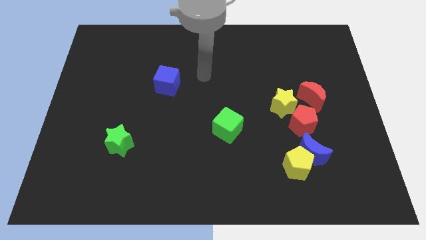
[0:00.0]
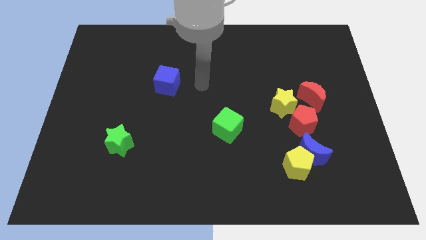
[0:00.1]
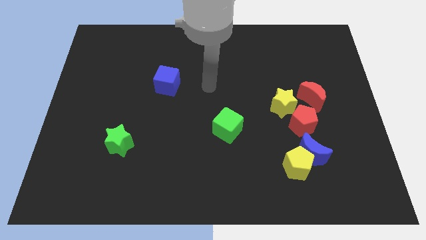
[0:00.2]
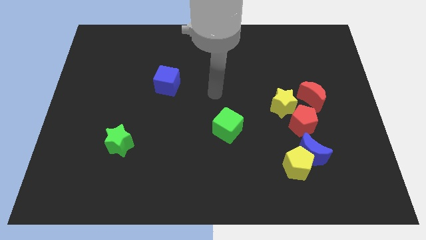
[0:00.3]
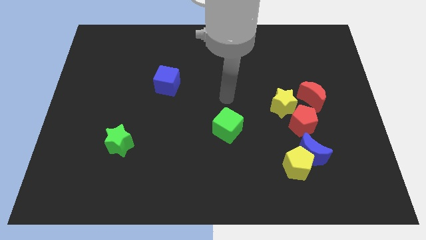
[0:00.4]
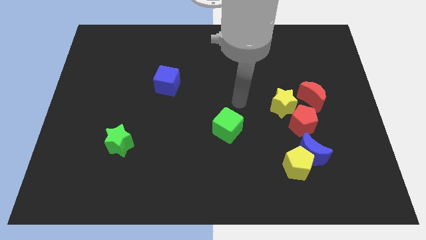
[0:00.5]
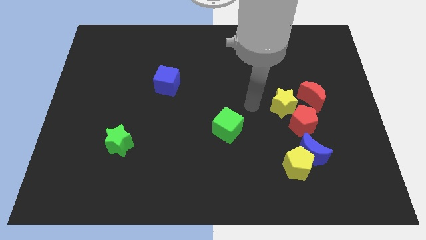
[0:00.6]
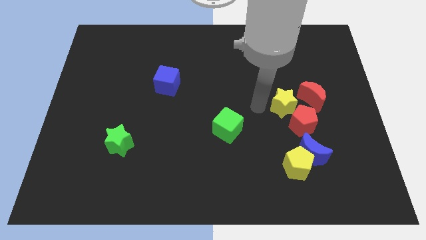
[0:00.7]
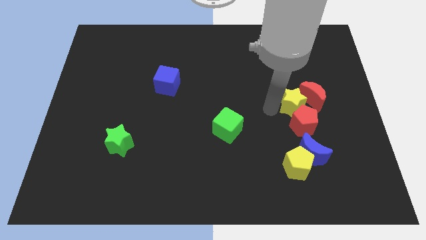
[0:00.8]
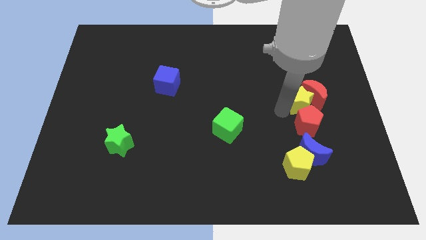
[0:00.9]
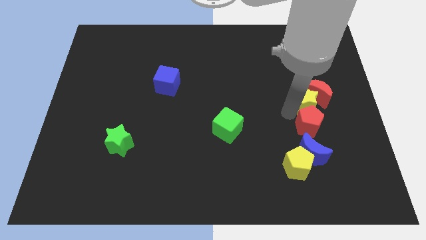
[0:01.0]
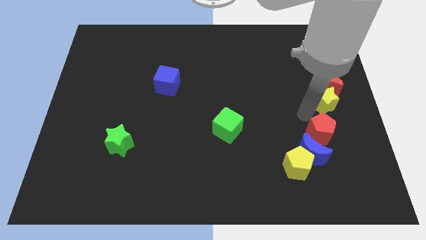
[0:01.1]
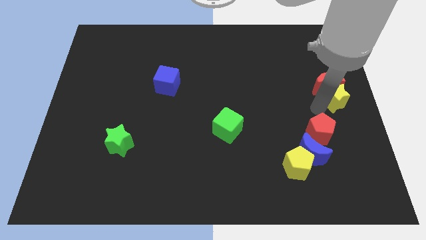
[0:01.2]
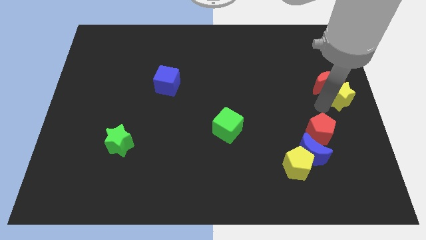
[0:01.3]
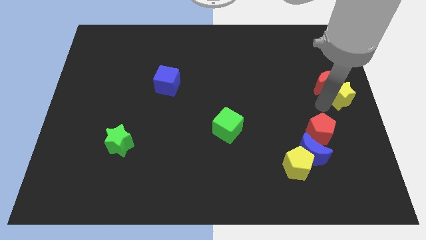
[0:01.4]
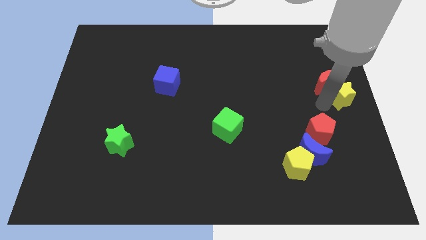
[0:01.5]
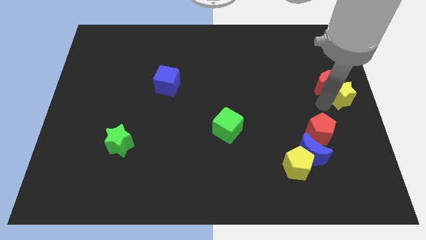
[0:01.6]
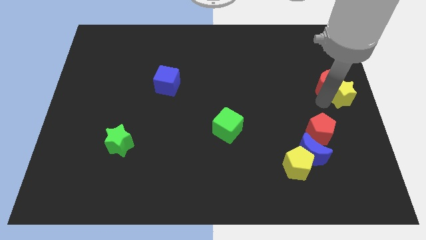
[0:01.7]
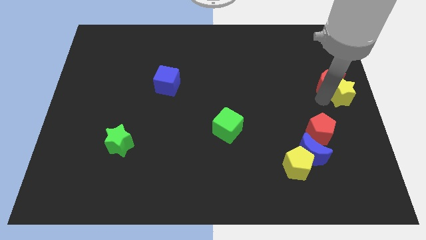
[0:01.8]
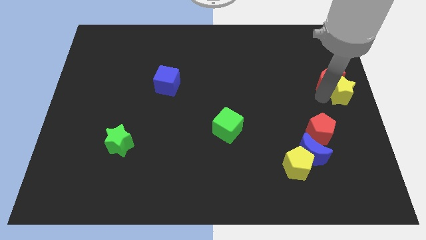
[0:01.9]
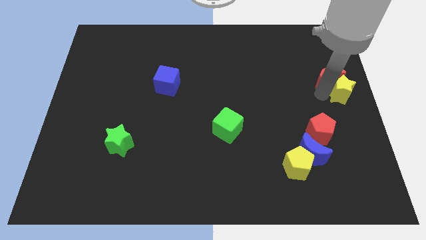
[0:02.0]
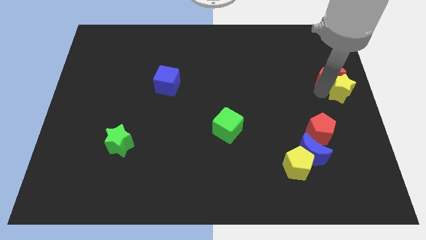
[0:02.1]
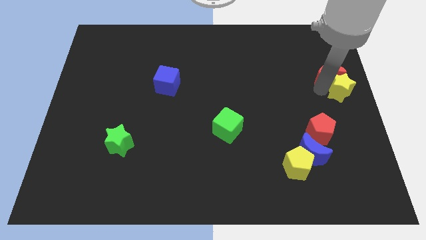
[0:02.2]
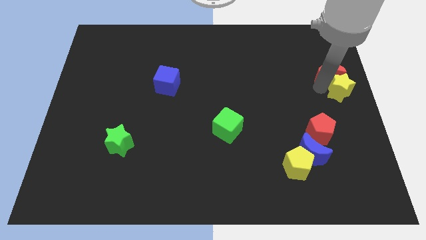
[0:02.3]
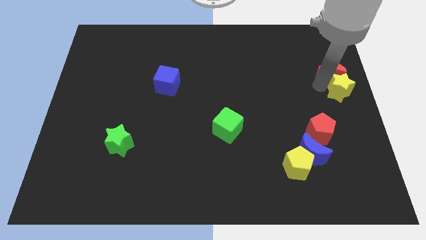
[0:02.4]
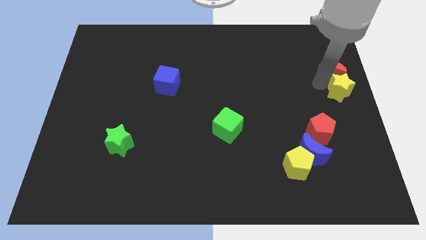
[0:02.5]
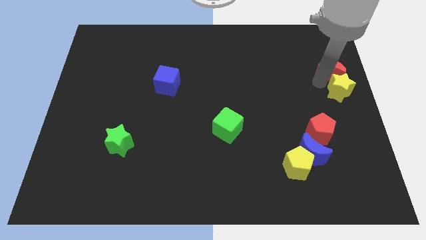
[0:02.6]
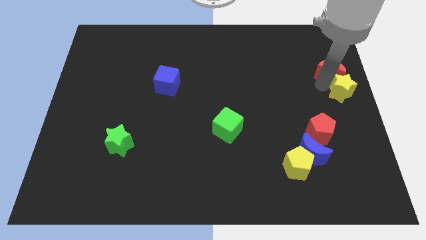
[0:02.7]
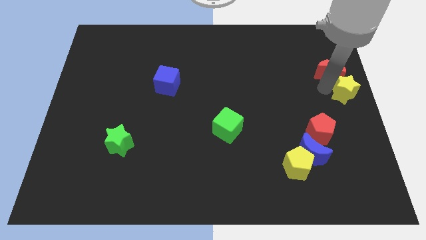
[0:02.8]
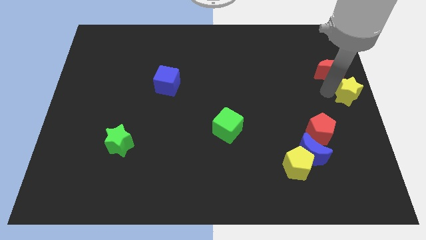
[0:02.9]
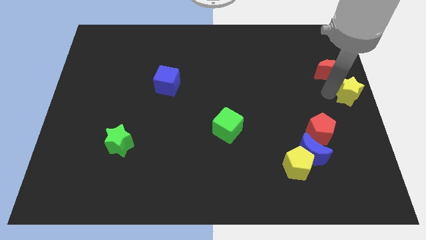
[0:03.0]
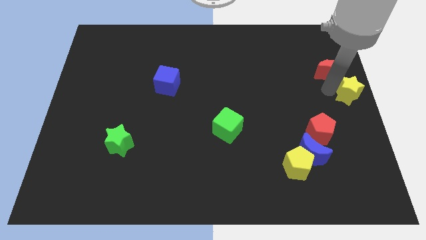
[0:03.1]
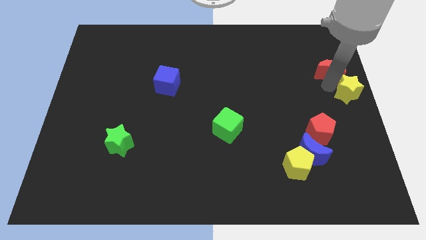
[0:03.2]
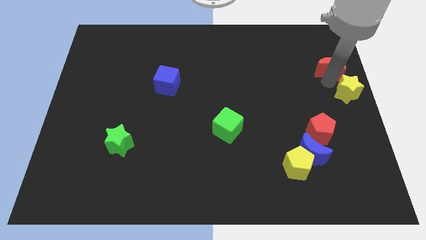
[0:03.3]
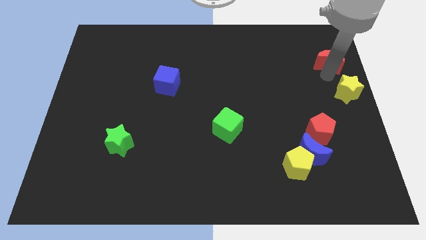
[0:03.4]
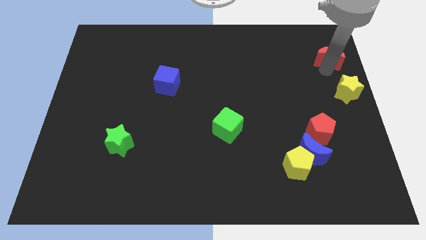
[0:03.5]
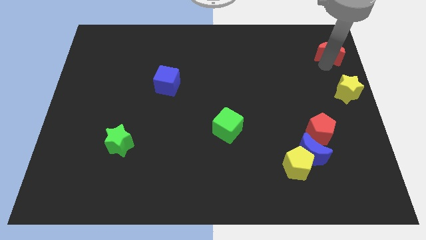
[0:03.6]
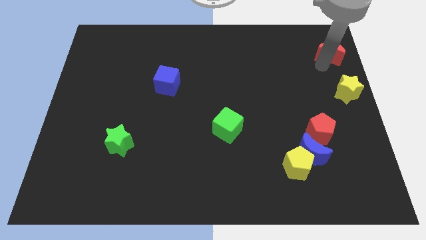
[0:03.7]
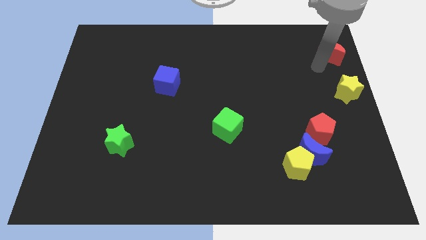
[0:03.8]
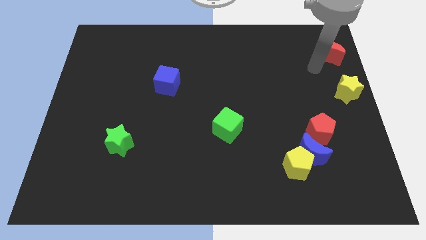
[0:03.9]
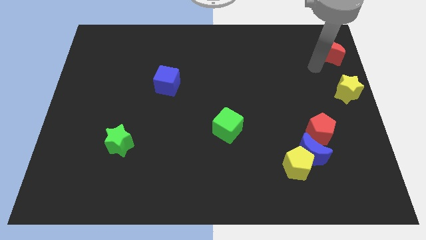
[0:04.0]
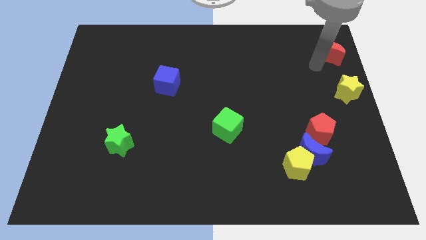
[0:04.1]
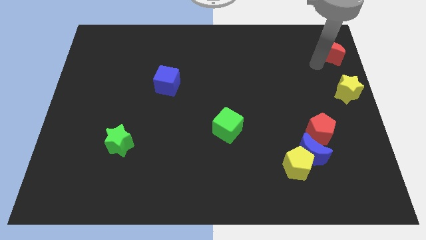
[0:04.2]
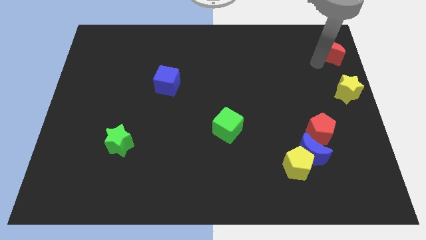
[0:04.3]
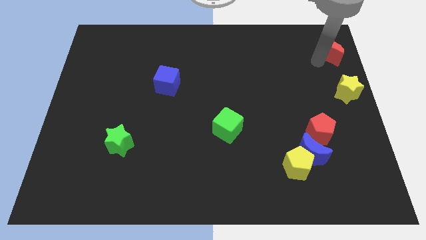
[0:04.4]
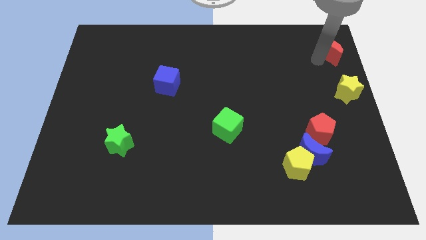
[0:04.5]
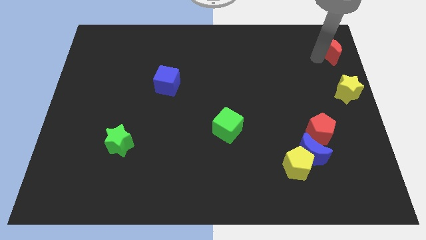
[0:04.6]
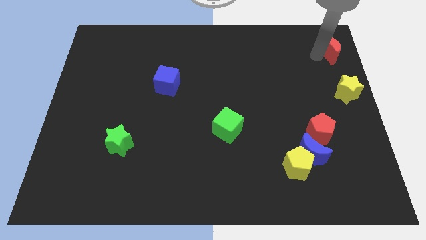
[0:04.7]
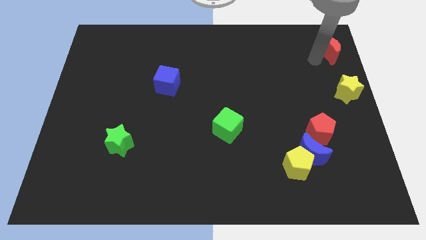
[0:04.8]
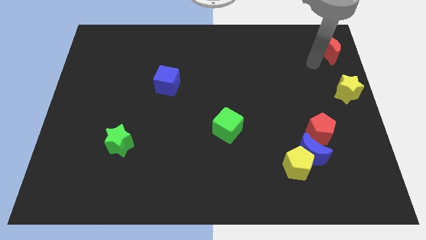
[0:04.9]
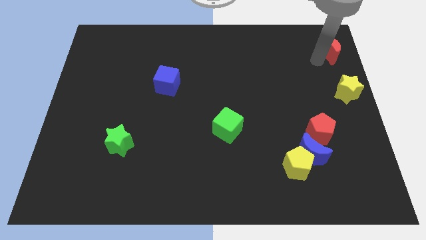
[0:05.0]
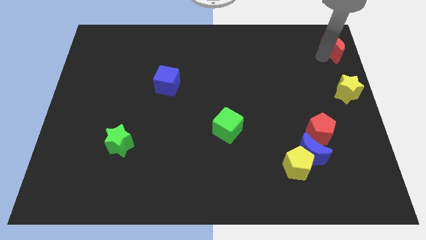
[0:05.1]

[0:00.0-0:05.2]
push the red moon to the top right corner

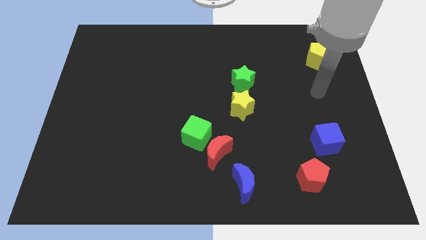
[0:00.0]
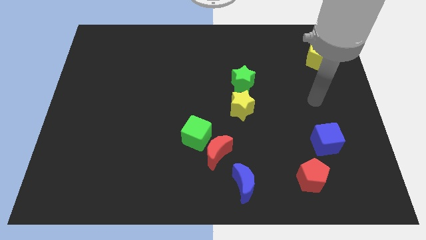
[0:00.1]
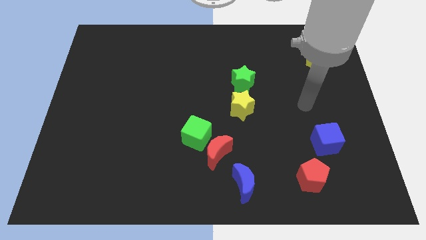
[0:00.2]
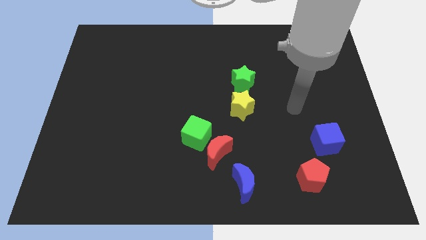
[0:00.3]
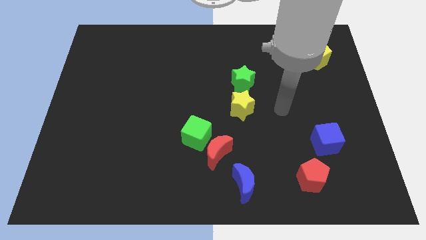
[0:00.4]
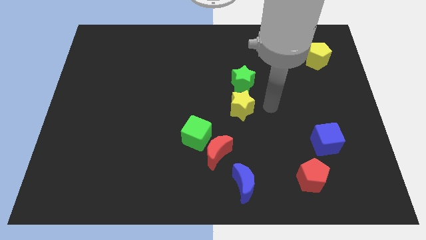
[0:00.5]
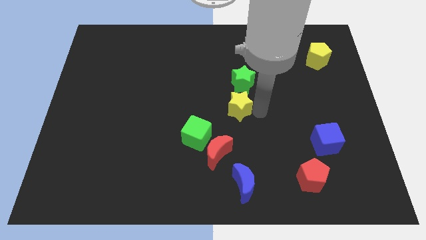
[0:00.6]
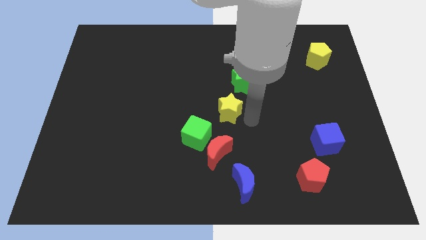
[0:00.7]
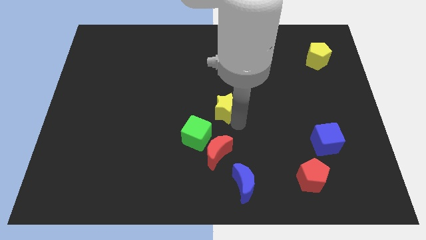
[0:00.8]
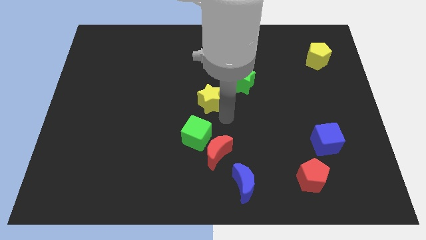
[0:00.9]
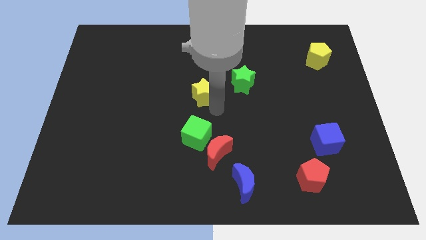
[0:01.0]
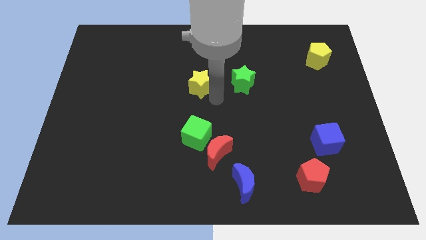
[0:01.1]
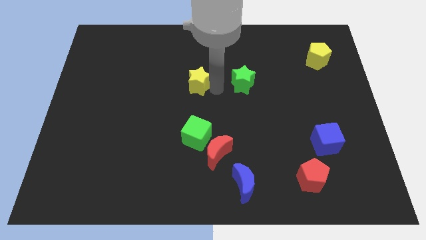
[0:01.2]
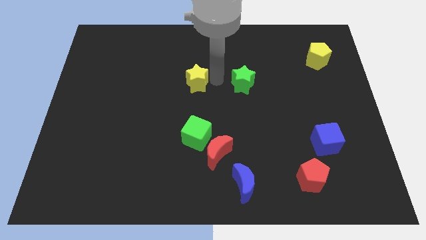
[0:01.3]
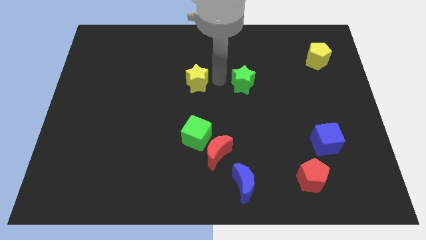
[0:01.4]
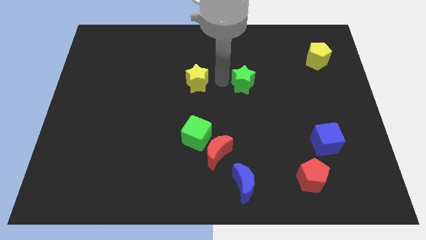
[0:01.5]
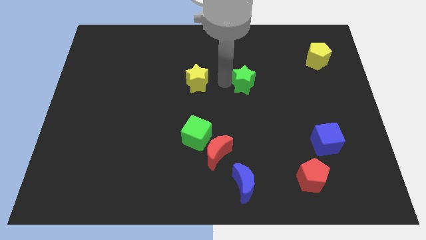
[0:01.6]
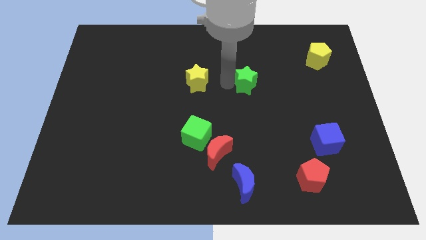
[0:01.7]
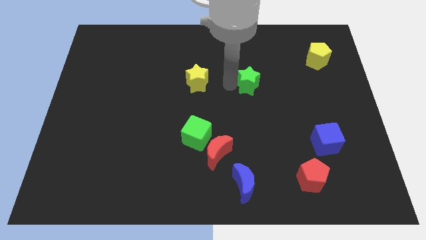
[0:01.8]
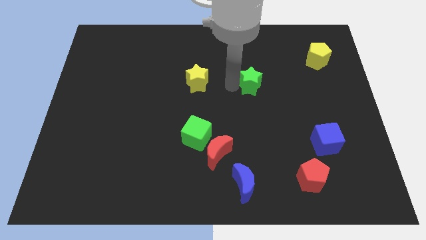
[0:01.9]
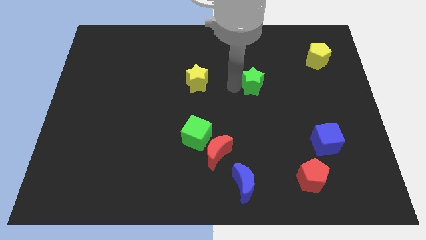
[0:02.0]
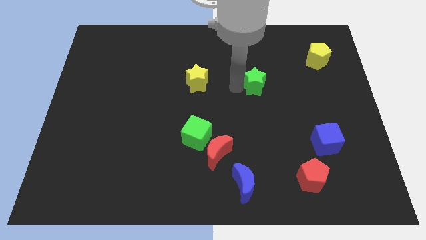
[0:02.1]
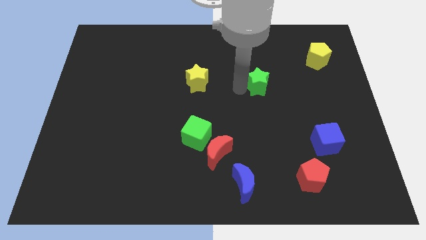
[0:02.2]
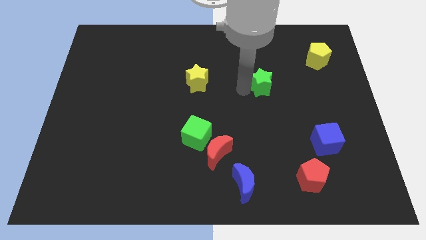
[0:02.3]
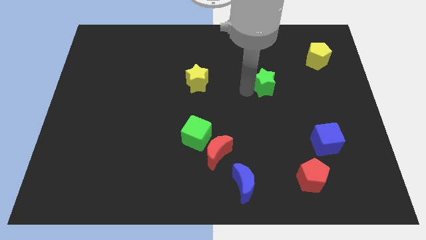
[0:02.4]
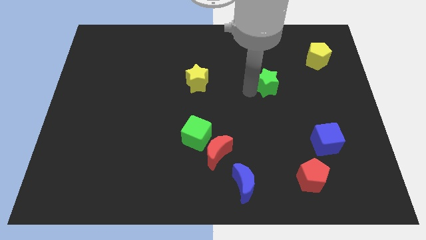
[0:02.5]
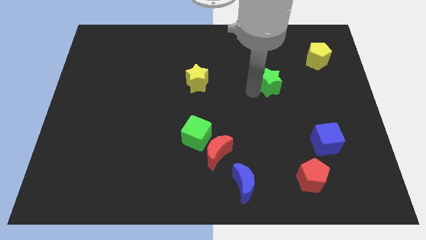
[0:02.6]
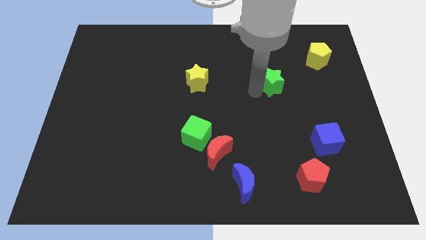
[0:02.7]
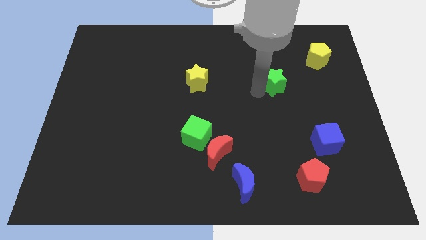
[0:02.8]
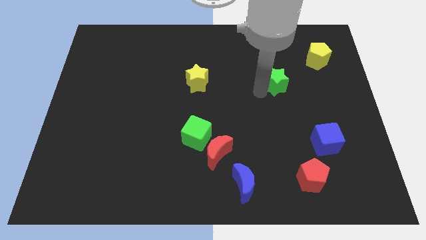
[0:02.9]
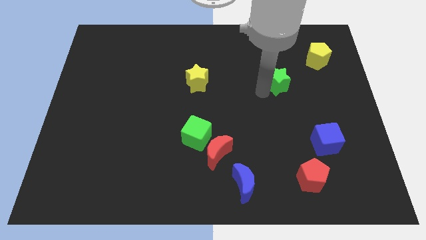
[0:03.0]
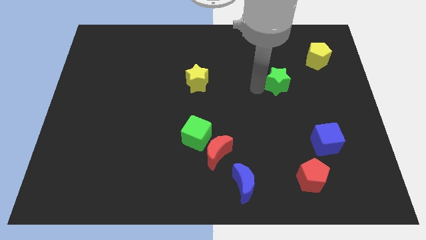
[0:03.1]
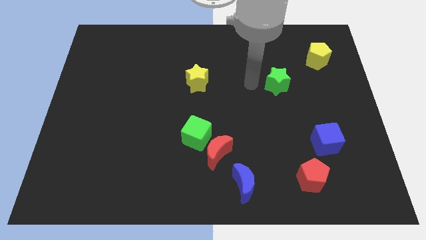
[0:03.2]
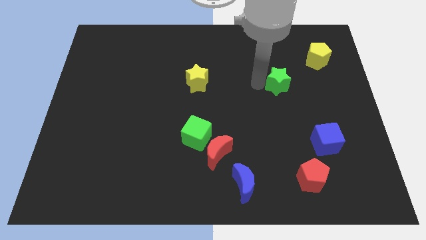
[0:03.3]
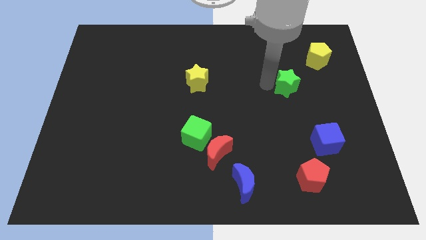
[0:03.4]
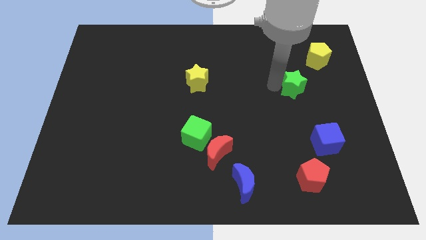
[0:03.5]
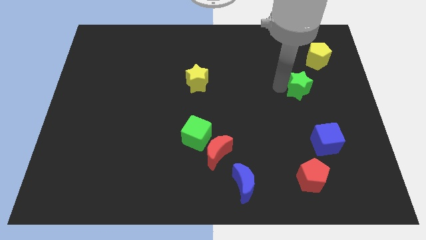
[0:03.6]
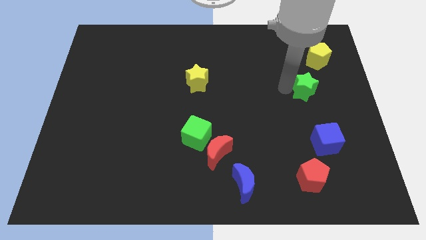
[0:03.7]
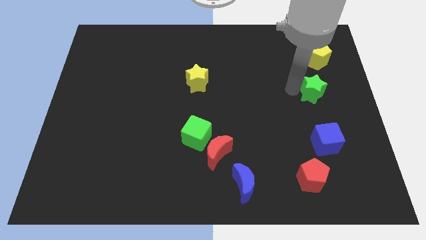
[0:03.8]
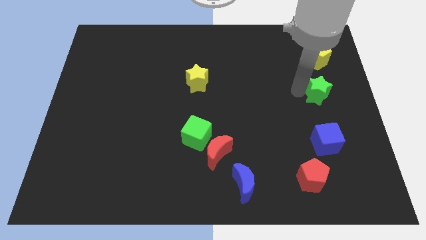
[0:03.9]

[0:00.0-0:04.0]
slide the green star to the center right
